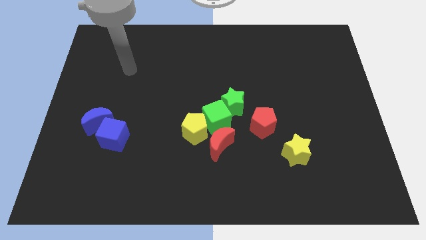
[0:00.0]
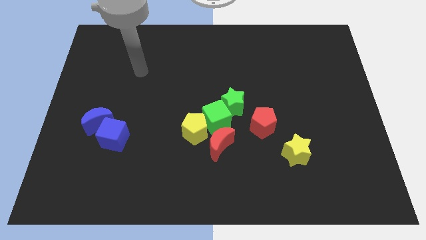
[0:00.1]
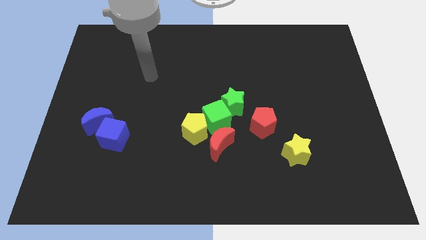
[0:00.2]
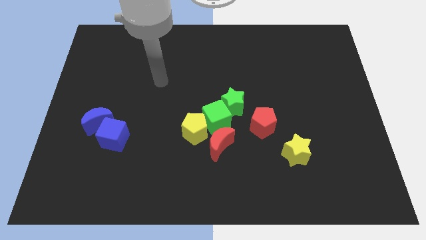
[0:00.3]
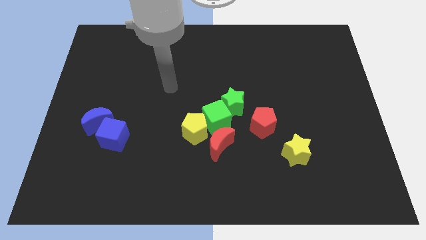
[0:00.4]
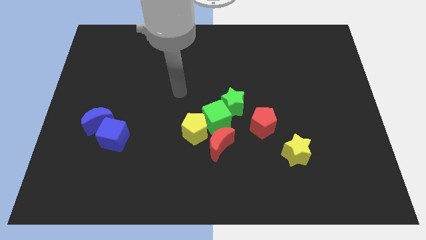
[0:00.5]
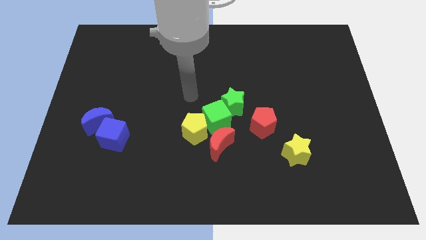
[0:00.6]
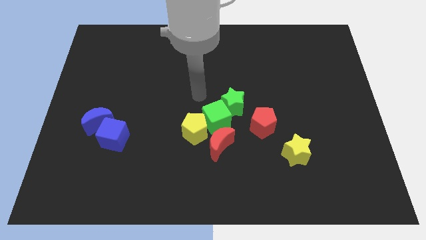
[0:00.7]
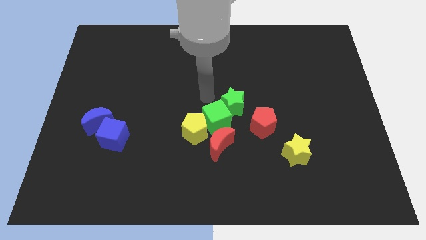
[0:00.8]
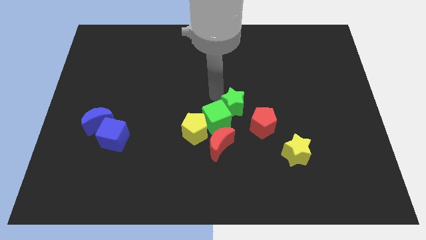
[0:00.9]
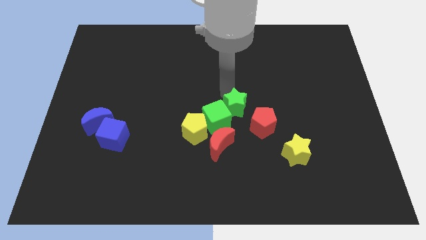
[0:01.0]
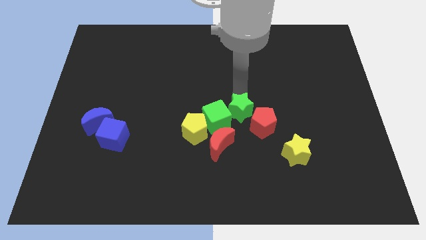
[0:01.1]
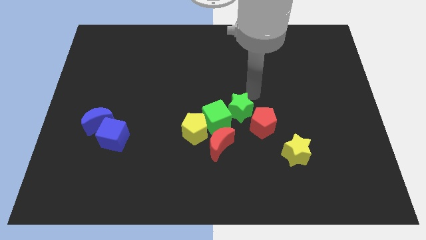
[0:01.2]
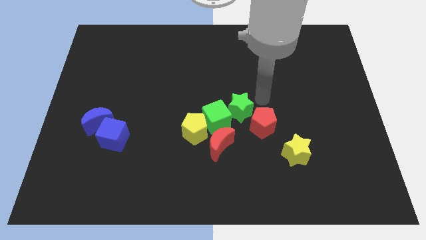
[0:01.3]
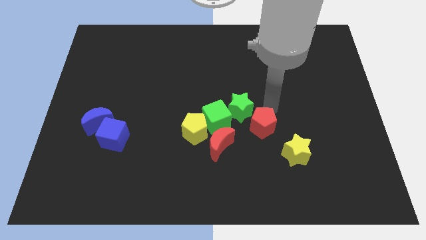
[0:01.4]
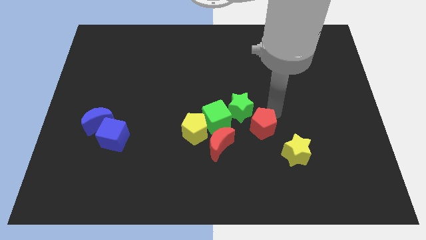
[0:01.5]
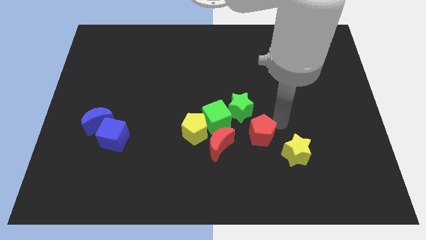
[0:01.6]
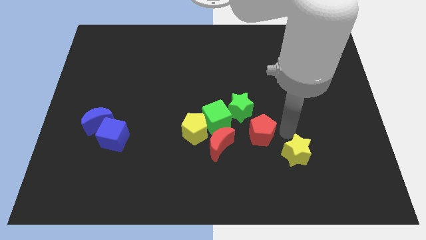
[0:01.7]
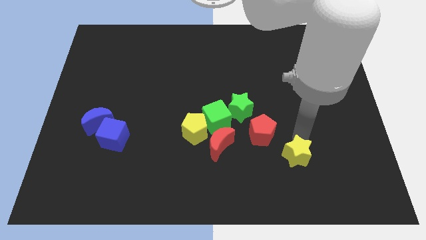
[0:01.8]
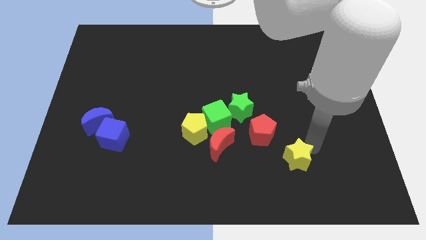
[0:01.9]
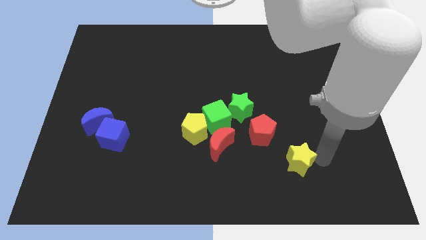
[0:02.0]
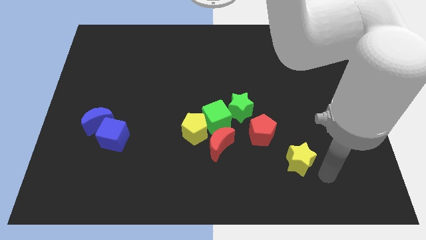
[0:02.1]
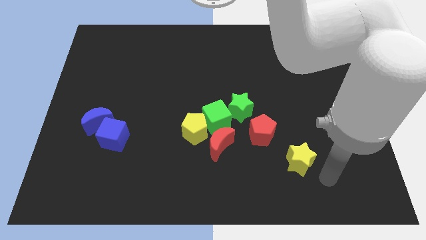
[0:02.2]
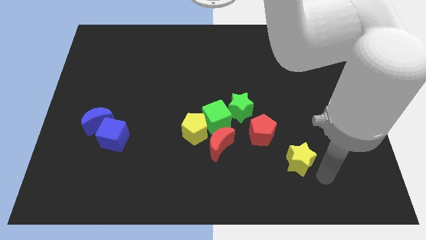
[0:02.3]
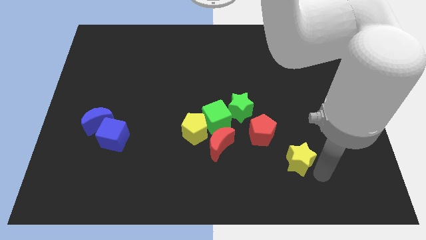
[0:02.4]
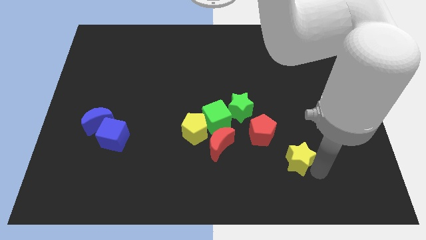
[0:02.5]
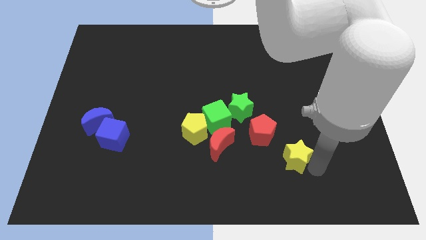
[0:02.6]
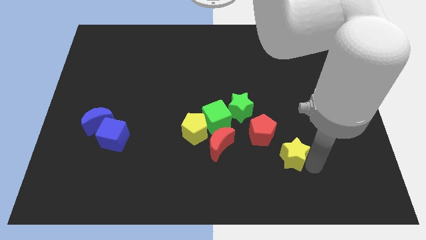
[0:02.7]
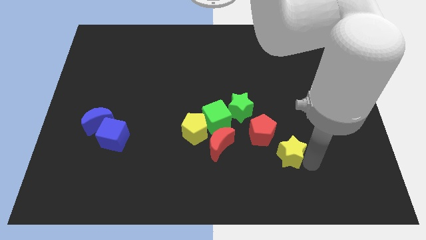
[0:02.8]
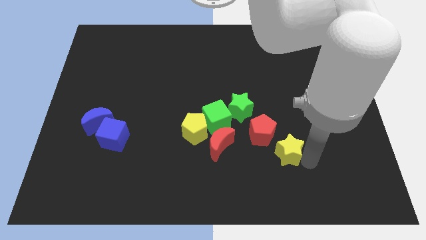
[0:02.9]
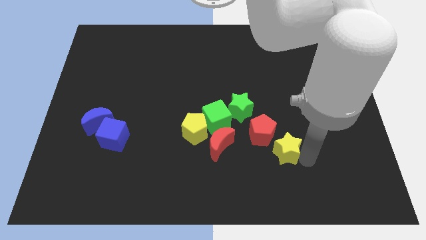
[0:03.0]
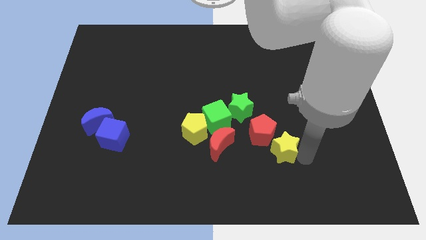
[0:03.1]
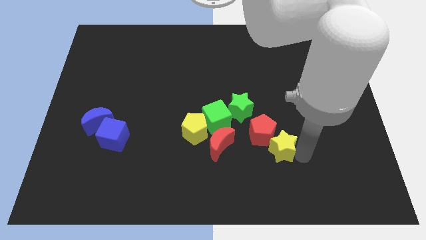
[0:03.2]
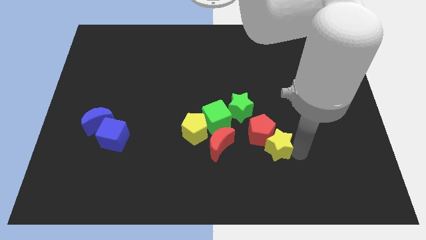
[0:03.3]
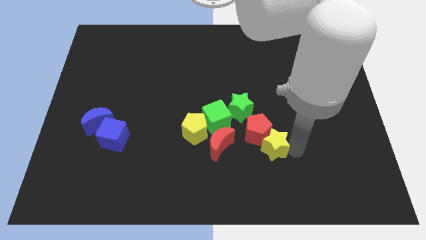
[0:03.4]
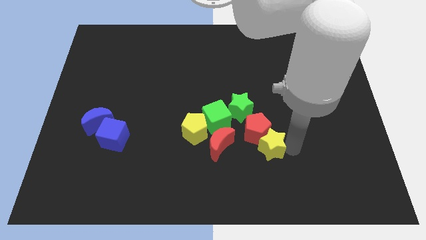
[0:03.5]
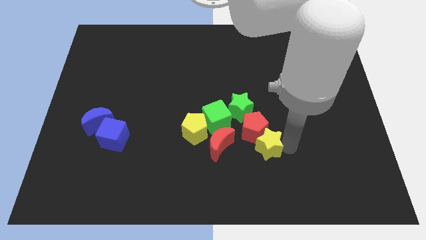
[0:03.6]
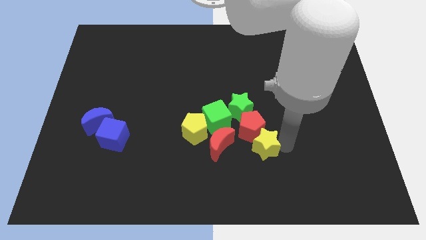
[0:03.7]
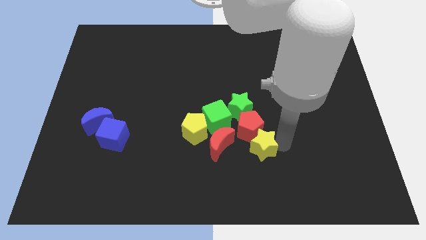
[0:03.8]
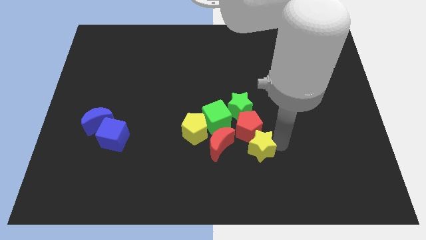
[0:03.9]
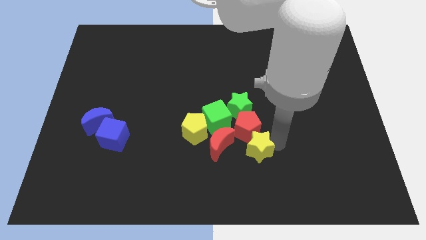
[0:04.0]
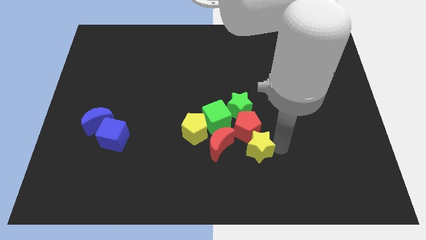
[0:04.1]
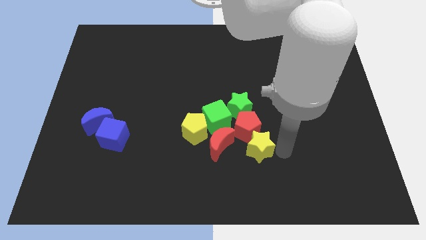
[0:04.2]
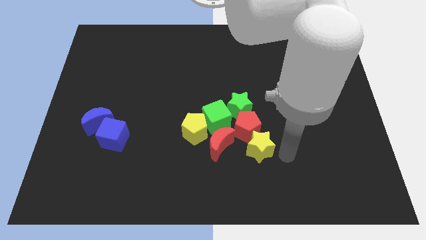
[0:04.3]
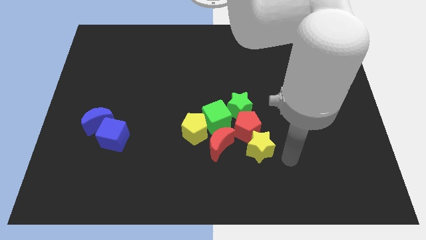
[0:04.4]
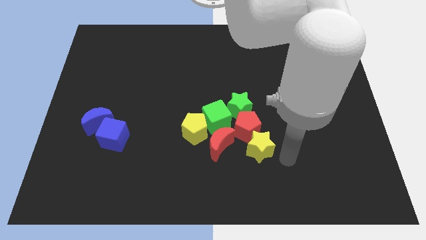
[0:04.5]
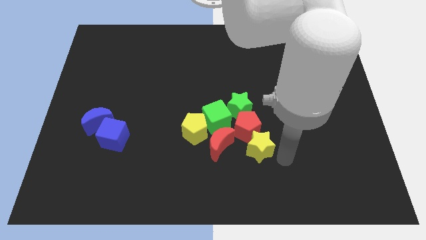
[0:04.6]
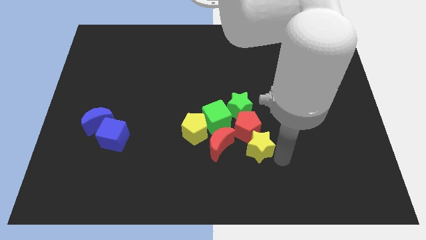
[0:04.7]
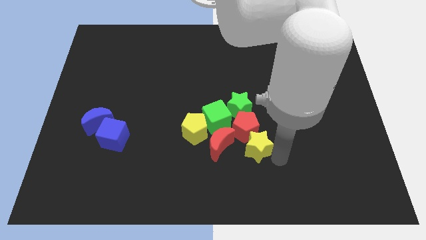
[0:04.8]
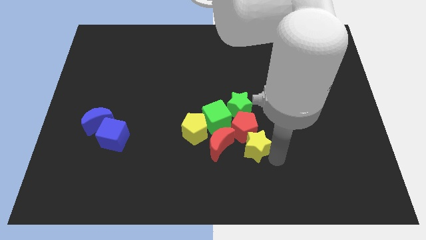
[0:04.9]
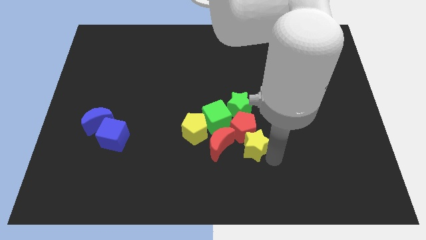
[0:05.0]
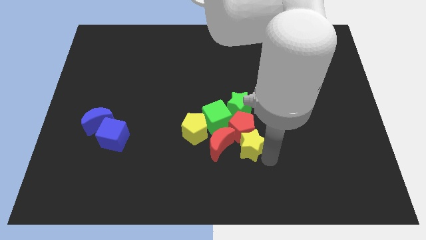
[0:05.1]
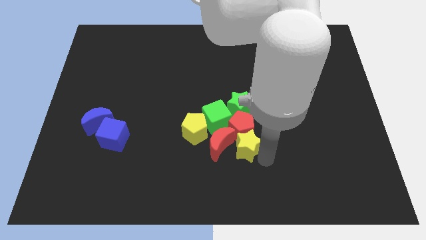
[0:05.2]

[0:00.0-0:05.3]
put the yellow star to the red moon

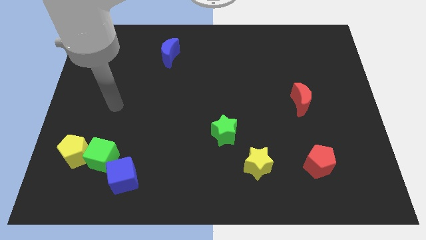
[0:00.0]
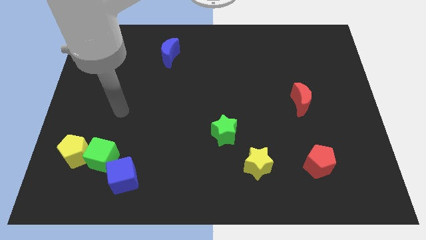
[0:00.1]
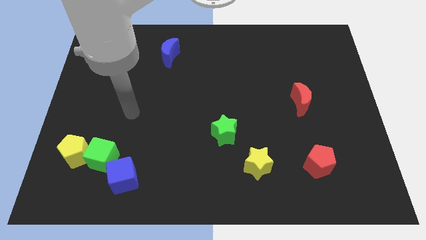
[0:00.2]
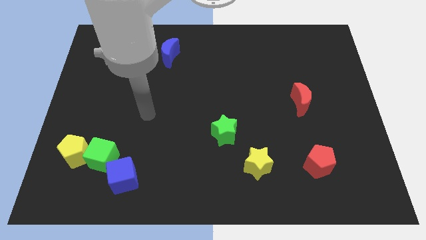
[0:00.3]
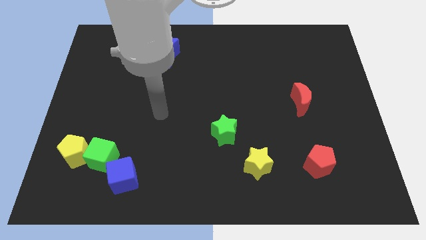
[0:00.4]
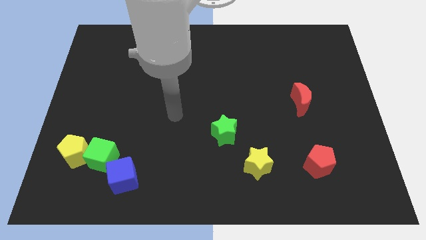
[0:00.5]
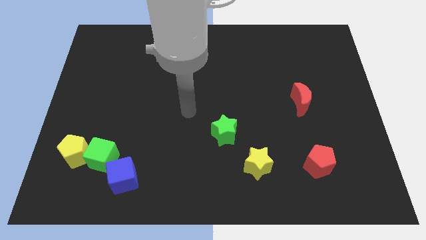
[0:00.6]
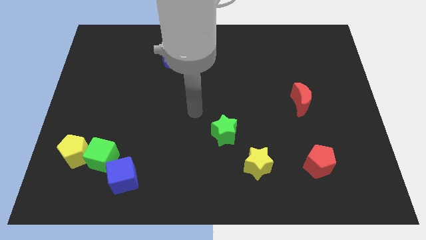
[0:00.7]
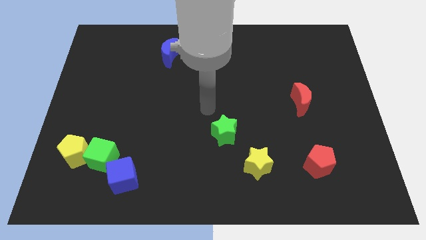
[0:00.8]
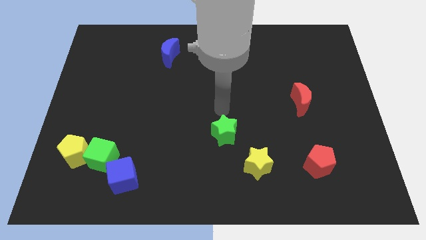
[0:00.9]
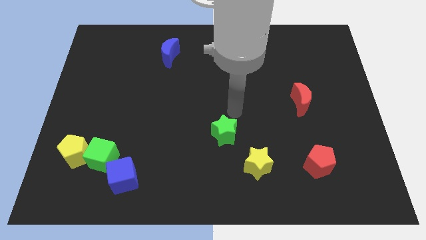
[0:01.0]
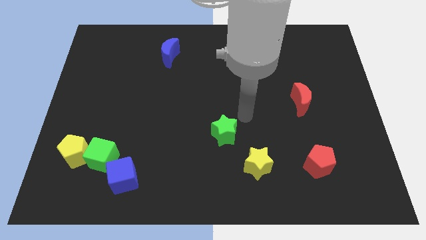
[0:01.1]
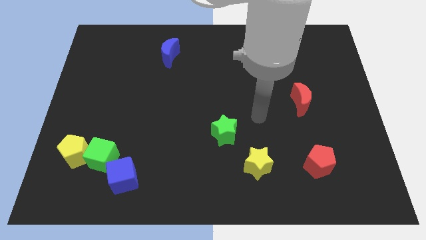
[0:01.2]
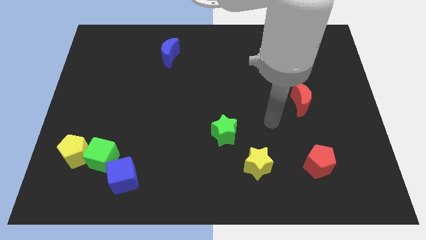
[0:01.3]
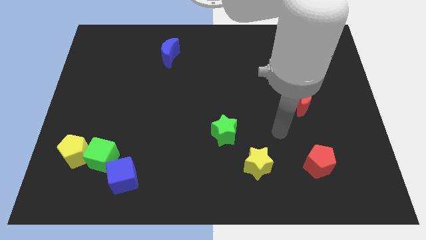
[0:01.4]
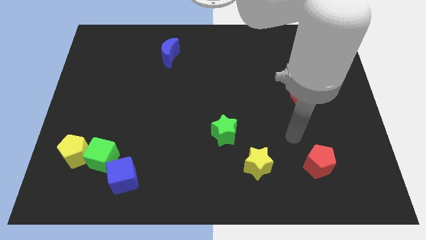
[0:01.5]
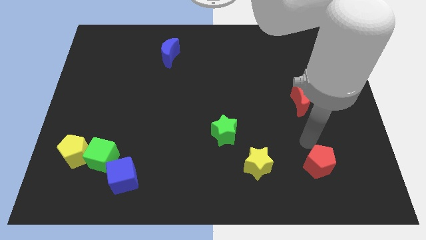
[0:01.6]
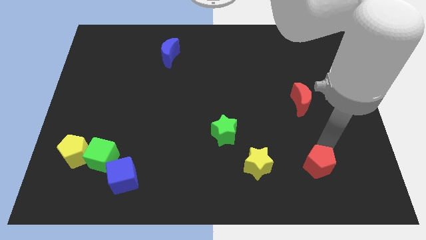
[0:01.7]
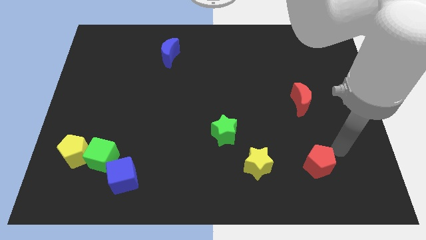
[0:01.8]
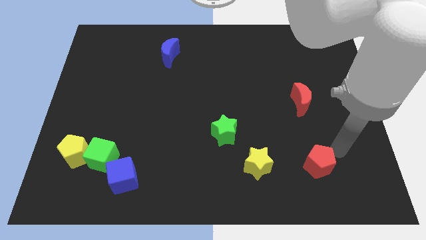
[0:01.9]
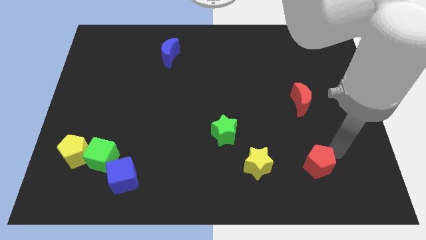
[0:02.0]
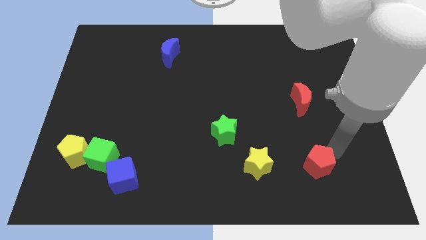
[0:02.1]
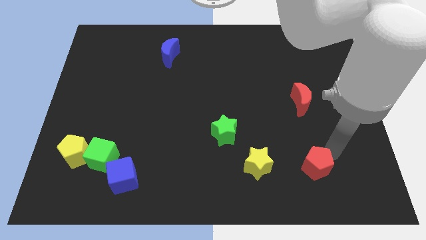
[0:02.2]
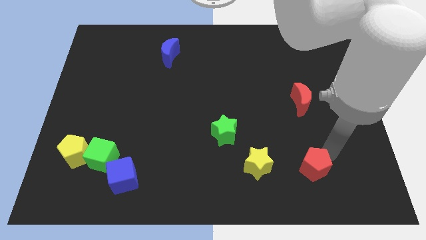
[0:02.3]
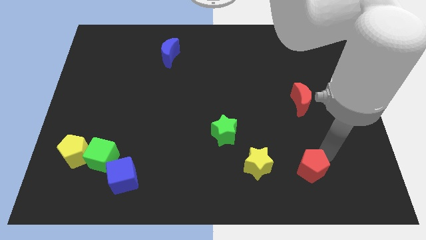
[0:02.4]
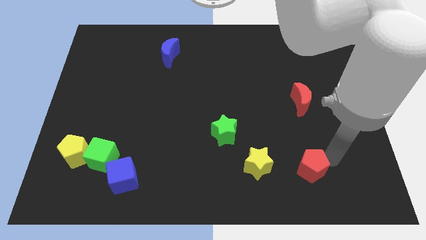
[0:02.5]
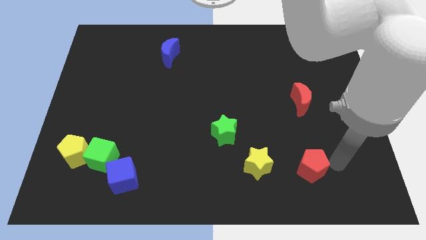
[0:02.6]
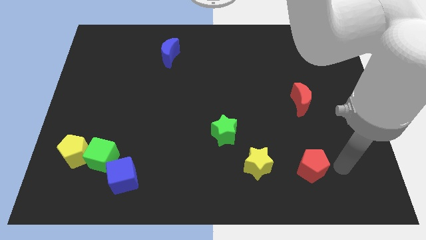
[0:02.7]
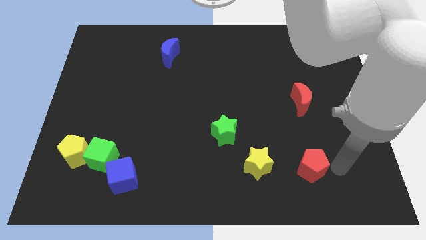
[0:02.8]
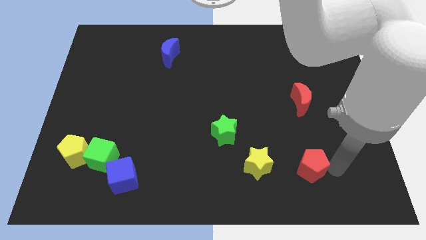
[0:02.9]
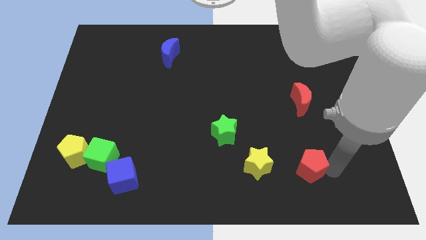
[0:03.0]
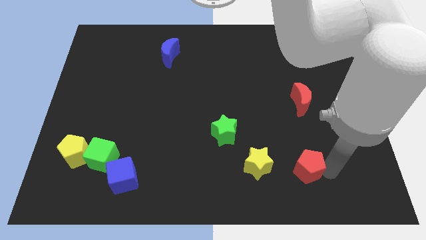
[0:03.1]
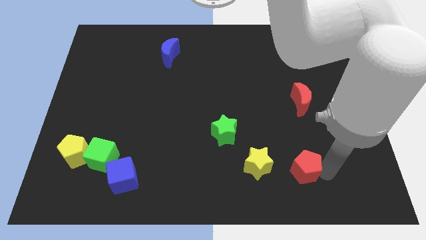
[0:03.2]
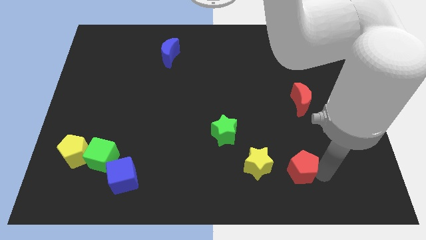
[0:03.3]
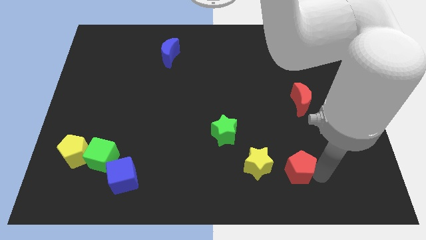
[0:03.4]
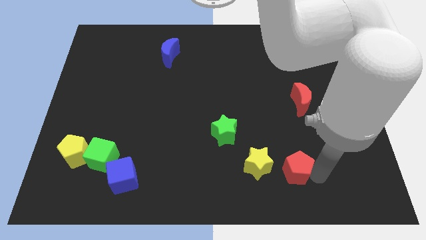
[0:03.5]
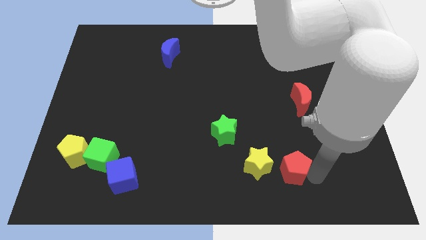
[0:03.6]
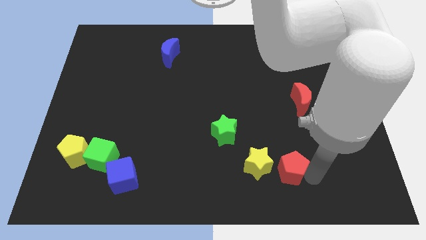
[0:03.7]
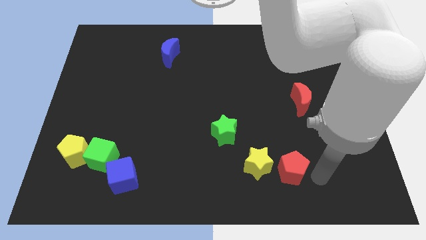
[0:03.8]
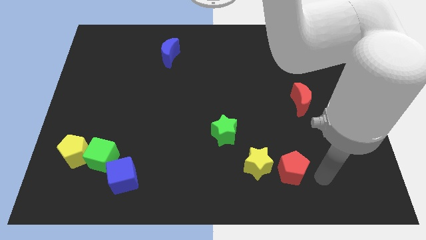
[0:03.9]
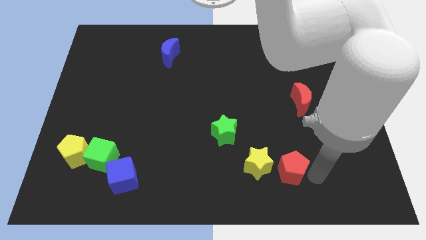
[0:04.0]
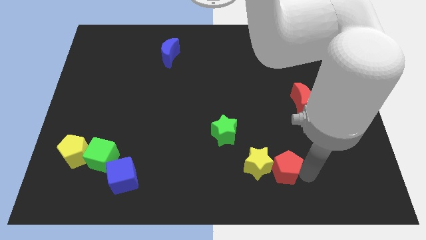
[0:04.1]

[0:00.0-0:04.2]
push the red pentagon towards the yellow star
